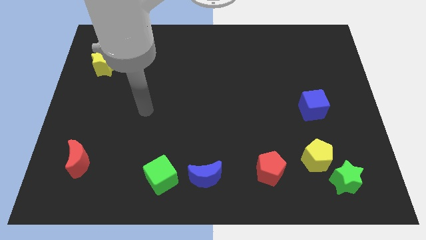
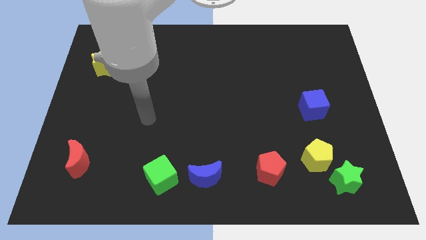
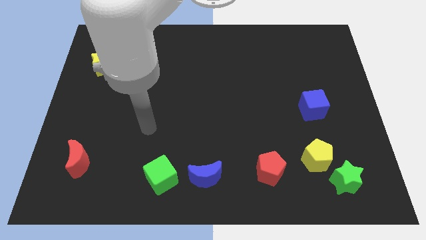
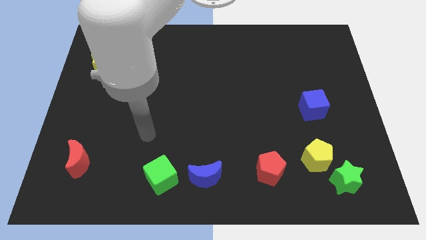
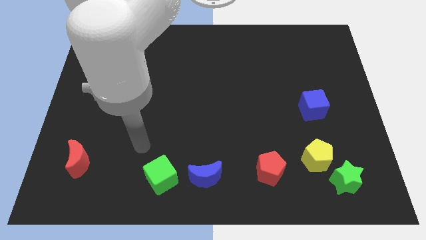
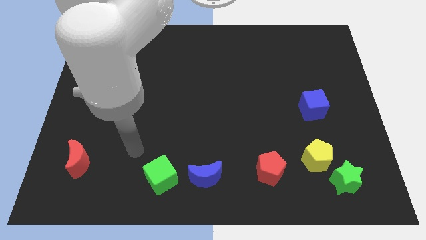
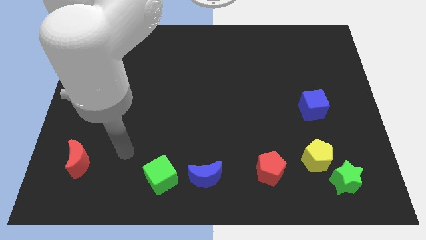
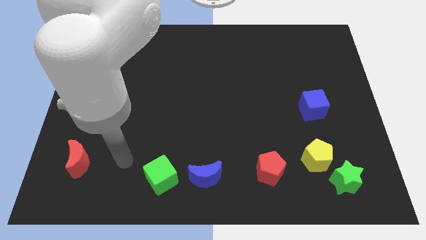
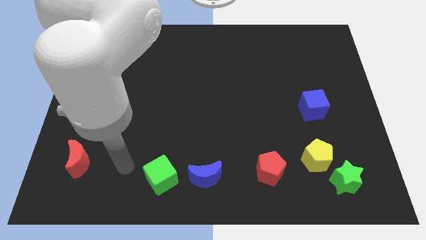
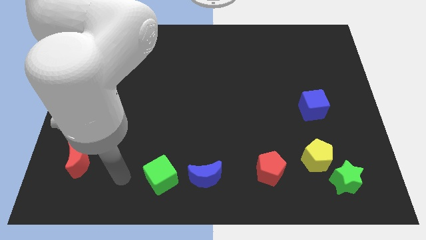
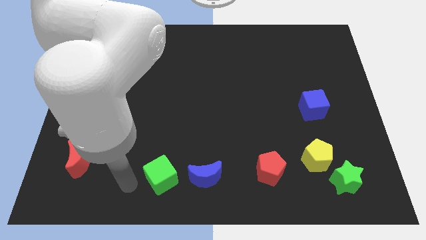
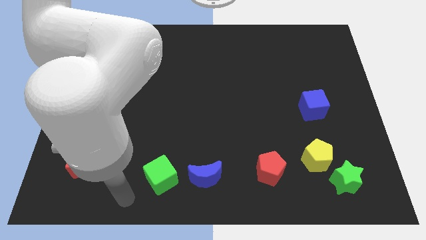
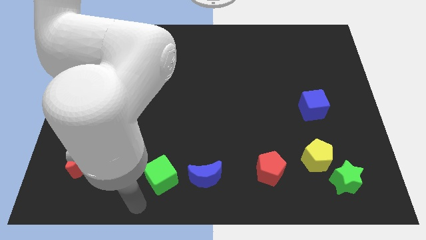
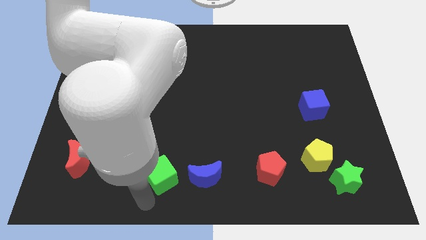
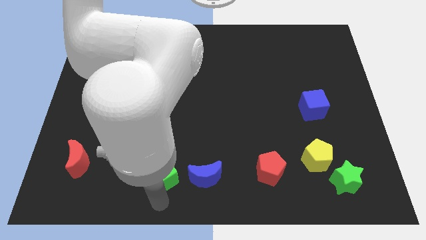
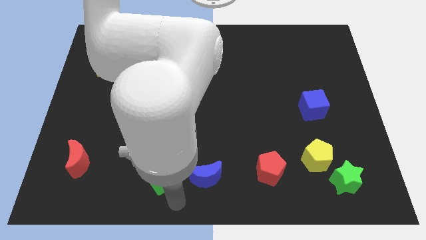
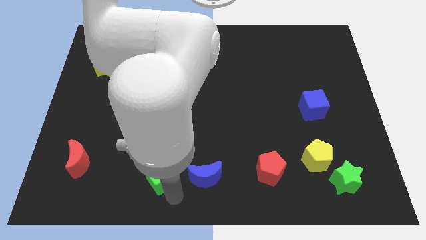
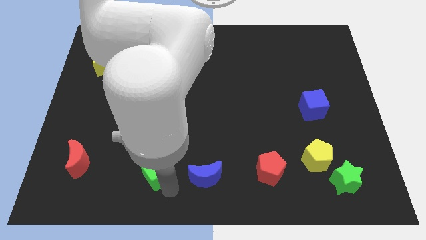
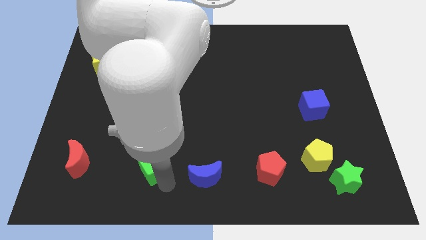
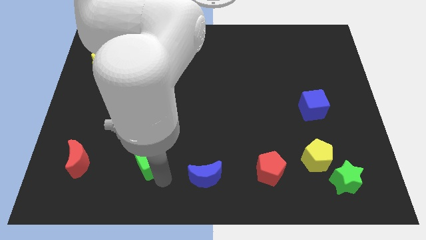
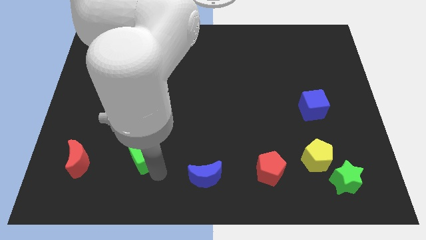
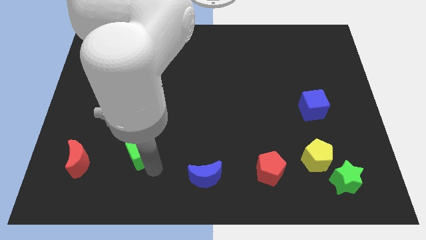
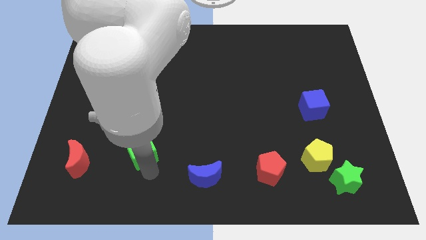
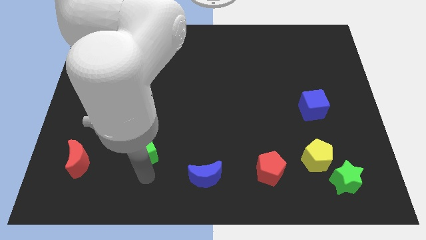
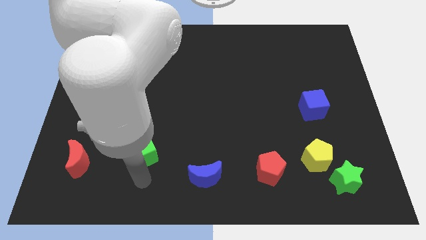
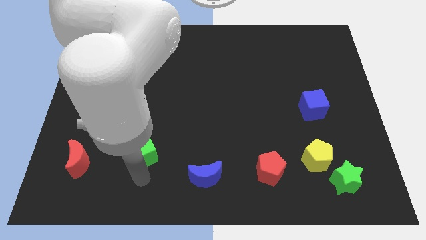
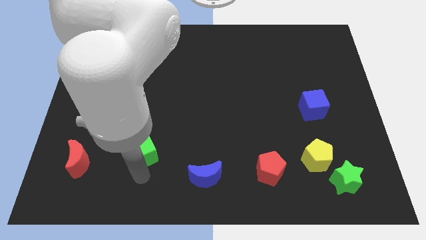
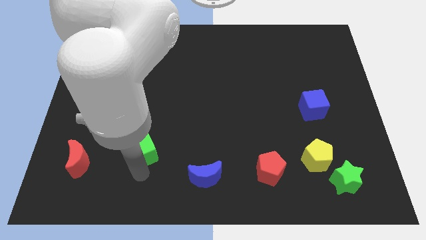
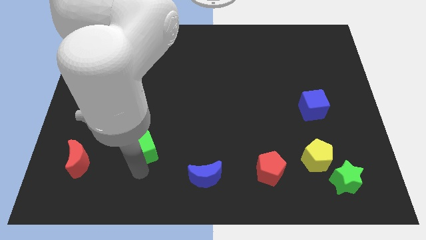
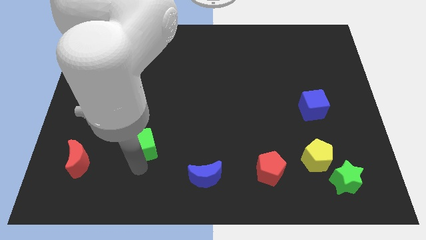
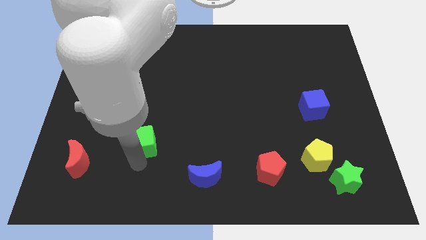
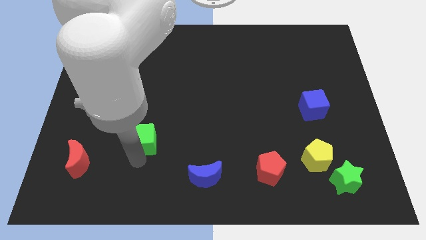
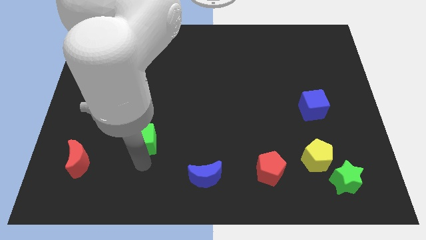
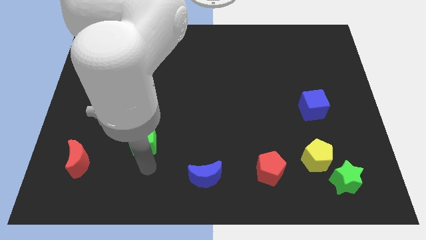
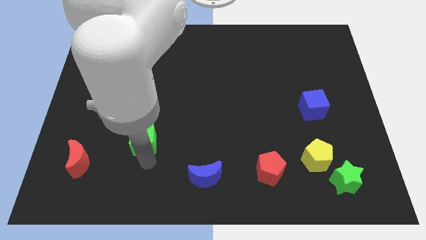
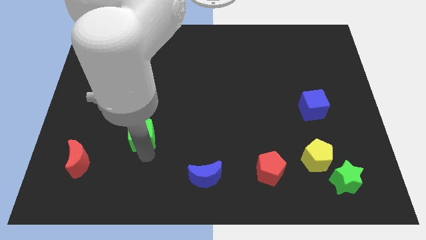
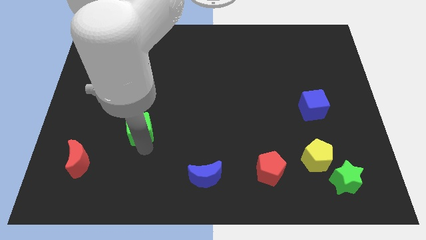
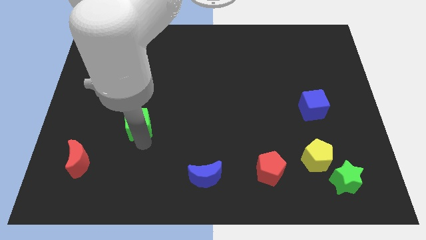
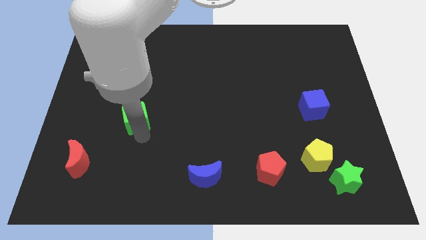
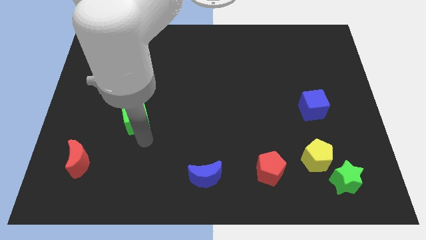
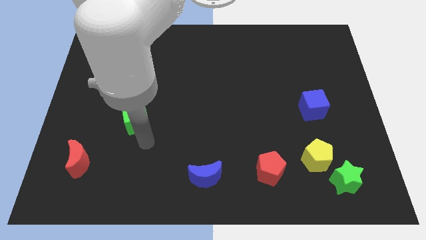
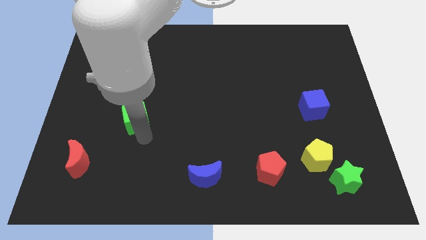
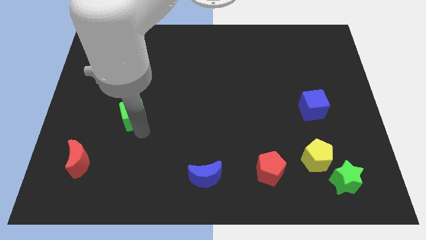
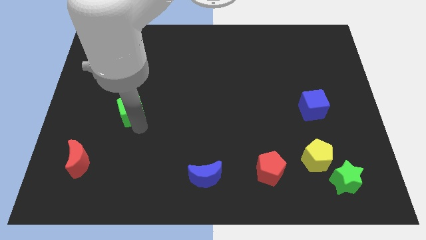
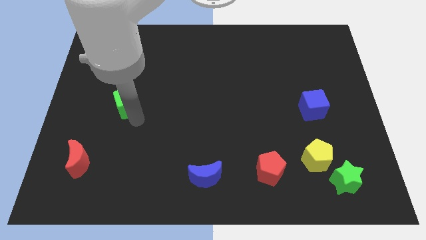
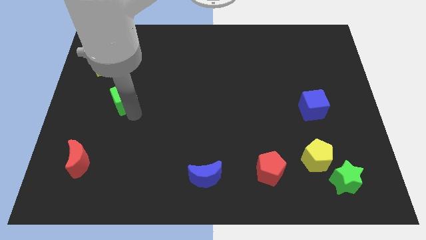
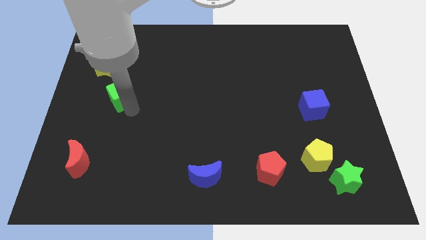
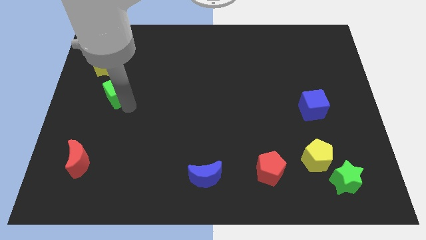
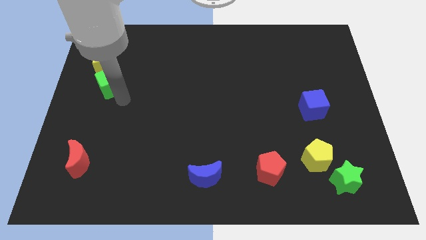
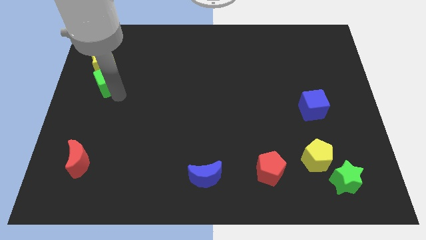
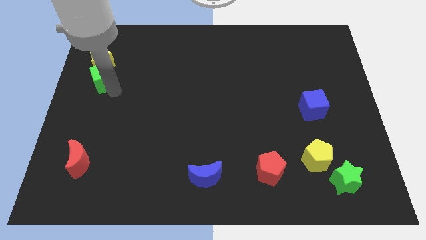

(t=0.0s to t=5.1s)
put the green cube towards the yellow star

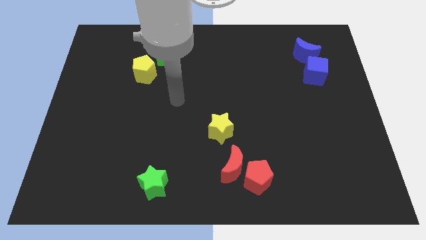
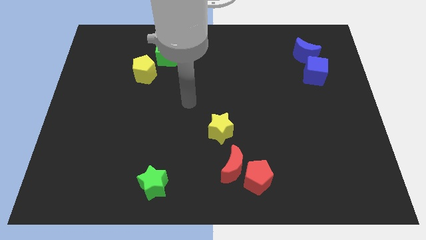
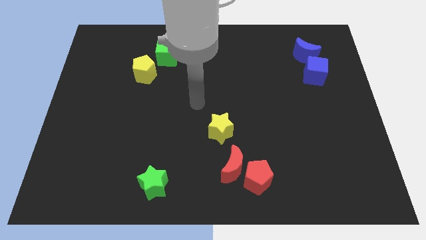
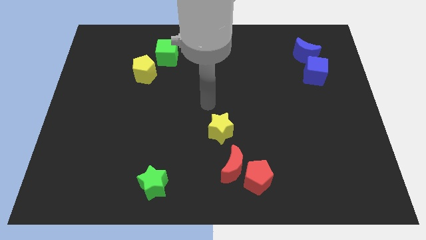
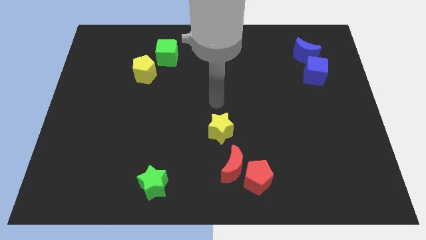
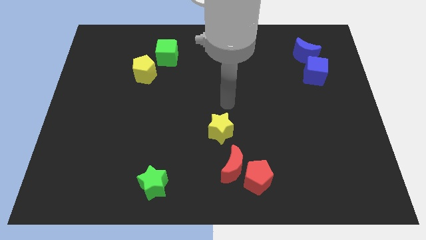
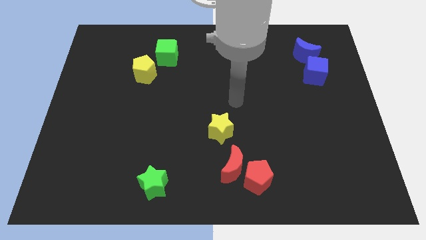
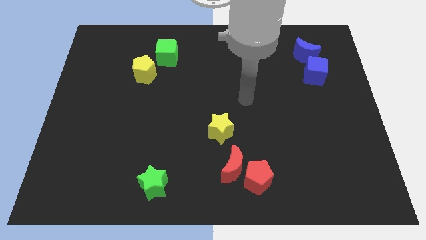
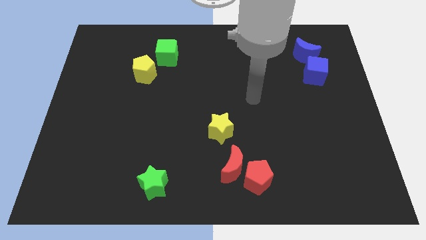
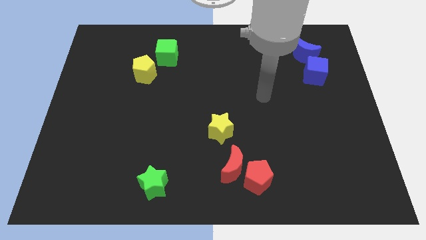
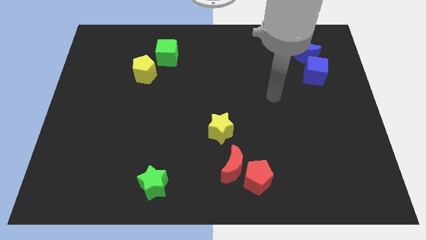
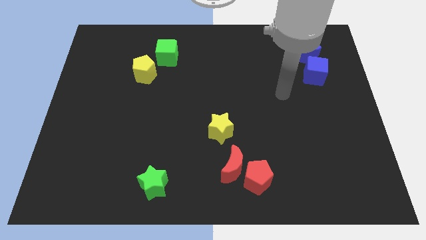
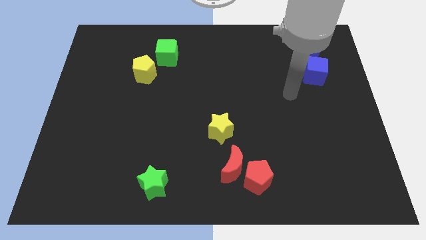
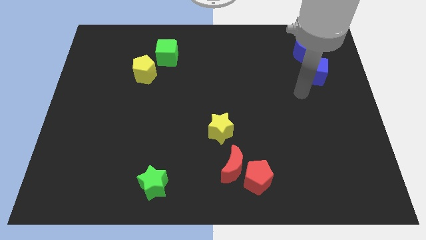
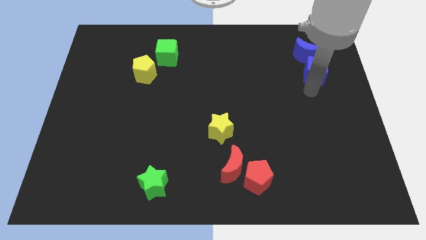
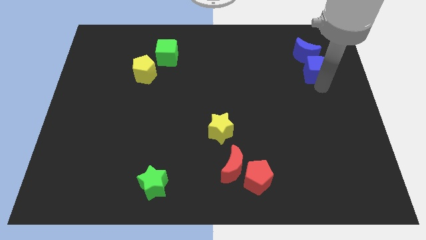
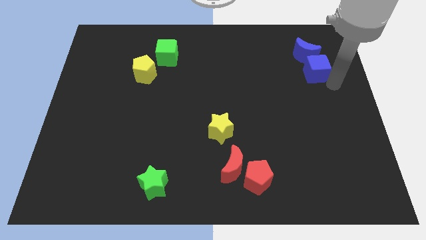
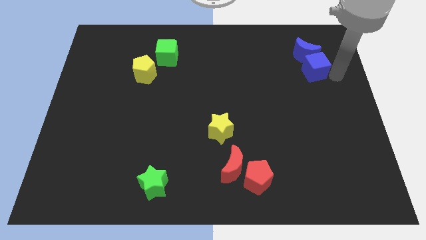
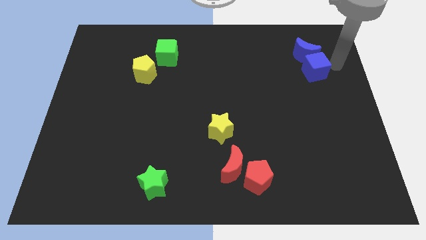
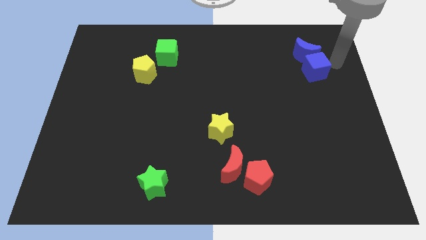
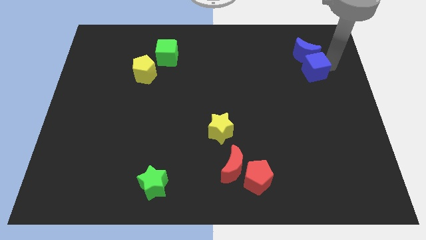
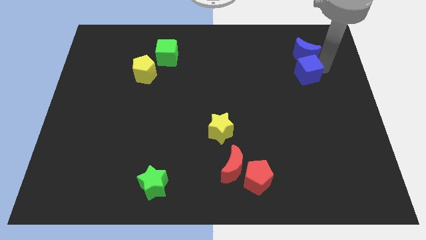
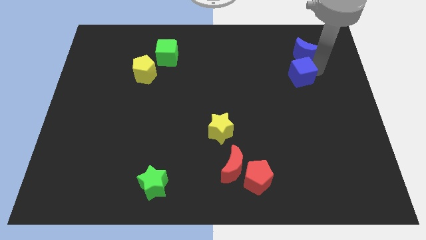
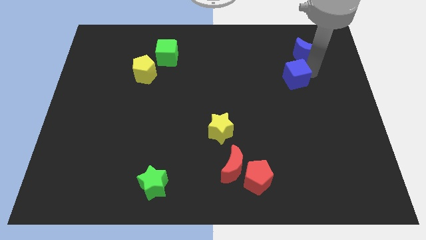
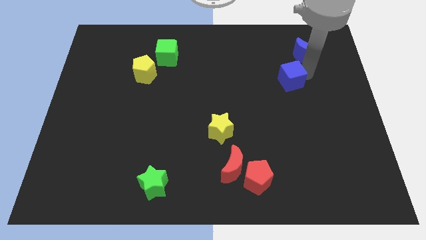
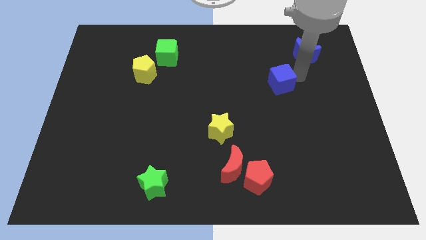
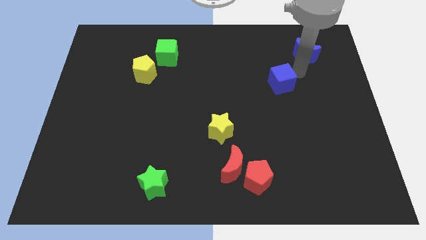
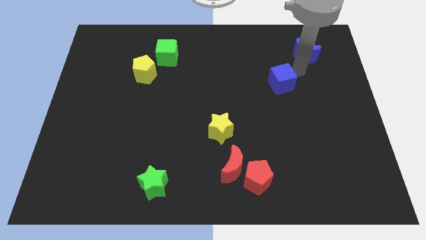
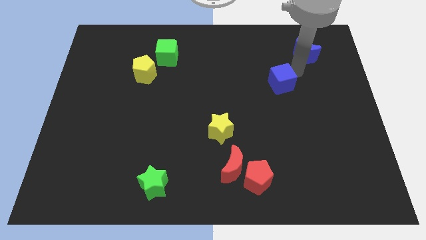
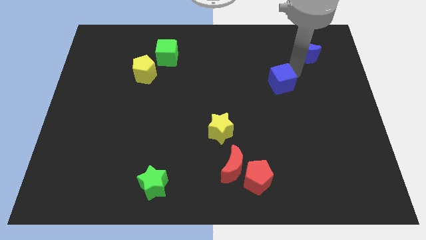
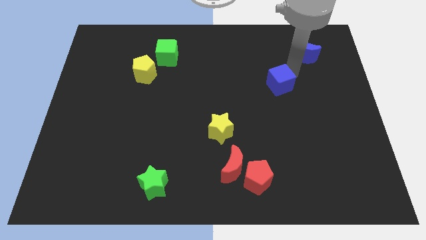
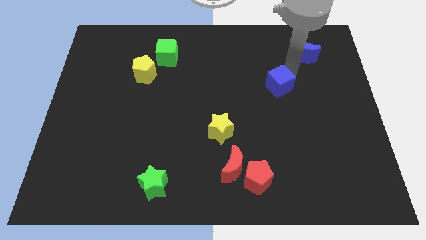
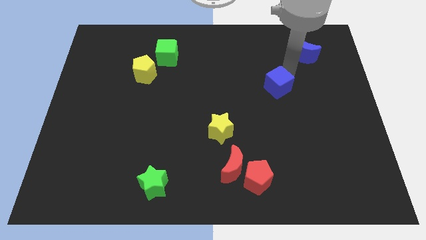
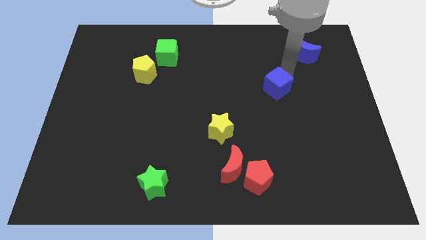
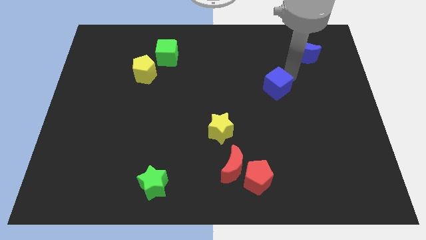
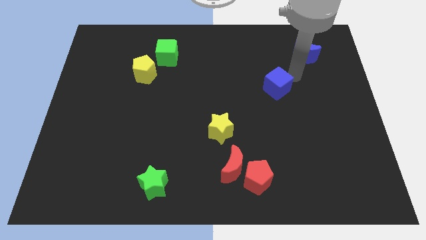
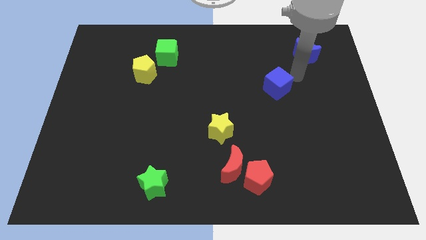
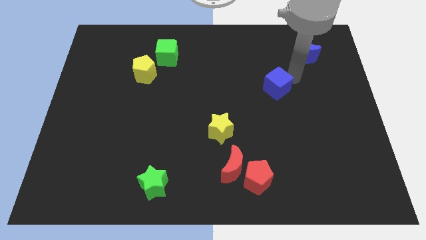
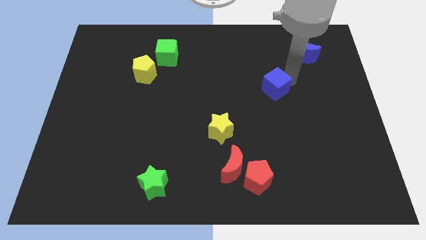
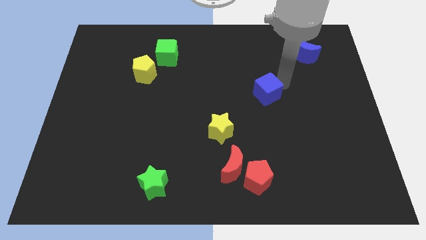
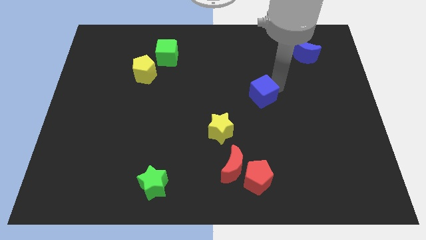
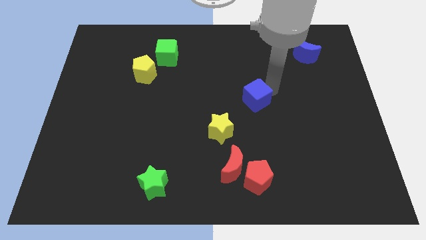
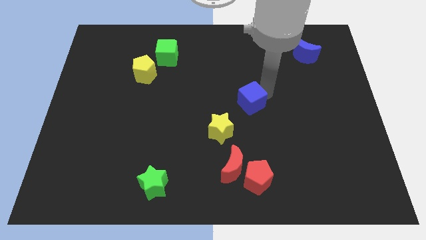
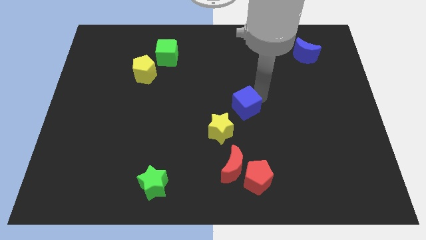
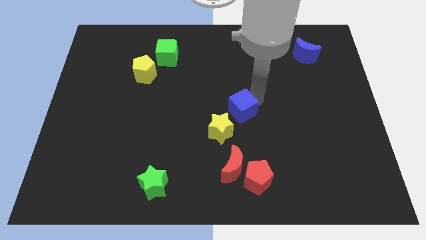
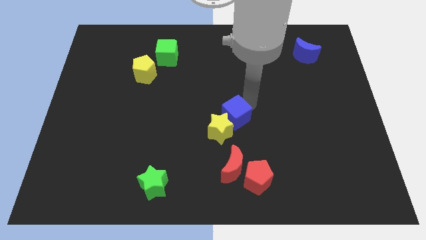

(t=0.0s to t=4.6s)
slide the blue cube towards the yellow star
